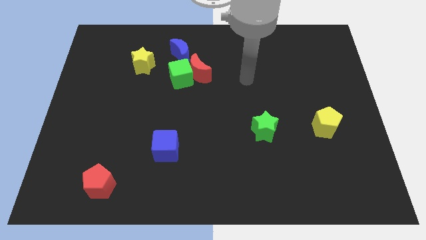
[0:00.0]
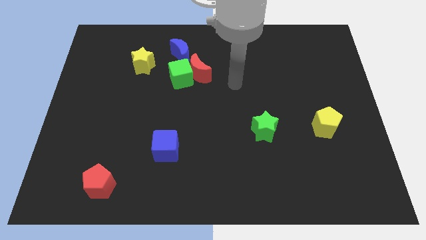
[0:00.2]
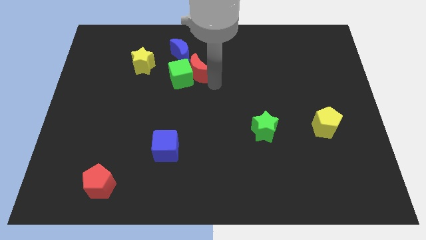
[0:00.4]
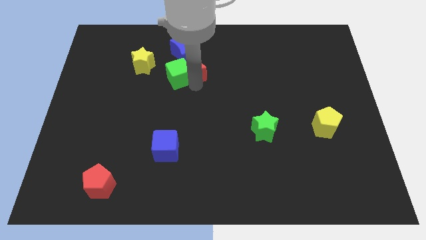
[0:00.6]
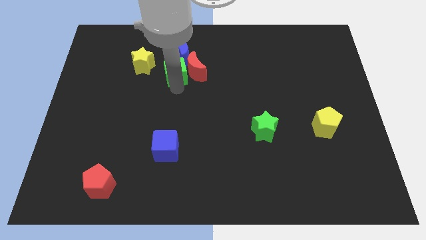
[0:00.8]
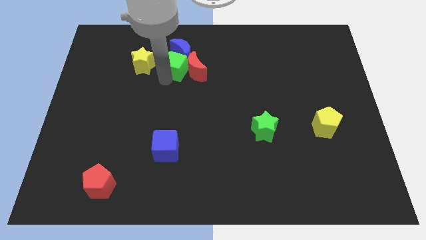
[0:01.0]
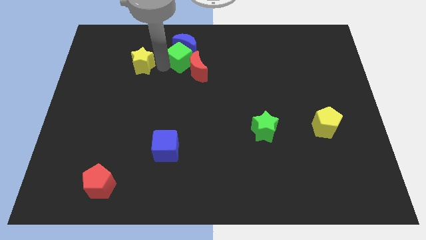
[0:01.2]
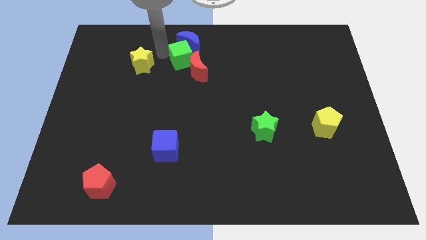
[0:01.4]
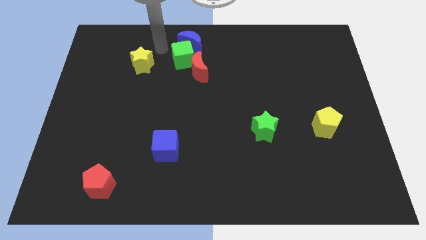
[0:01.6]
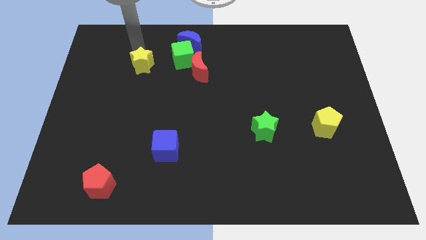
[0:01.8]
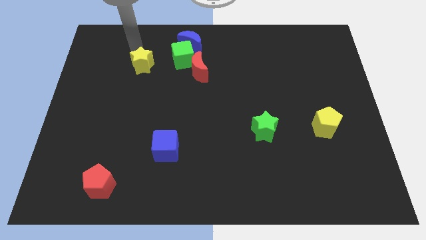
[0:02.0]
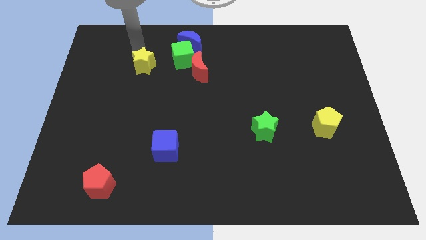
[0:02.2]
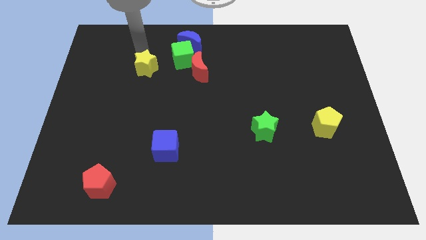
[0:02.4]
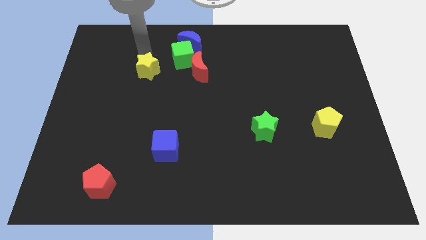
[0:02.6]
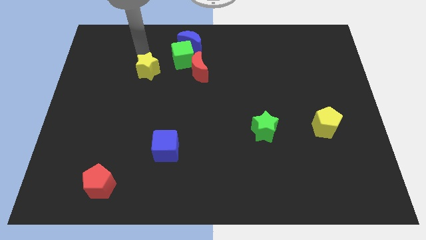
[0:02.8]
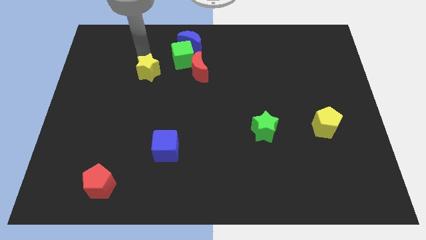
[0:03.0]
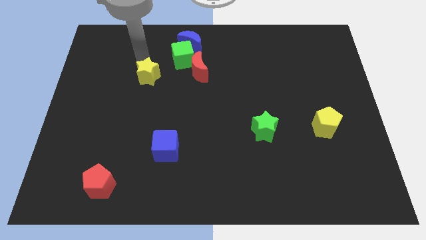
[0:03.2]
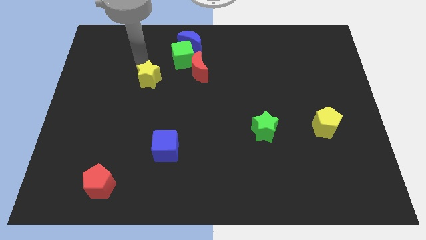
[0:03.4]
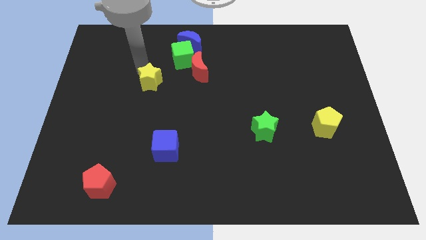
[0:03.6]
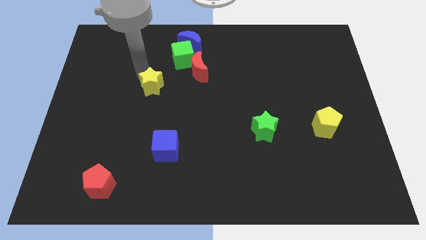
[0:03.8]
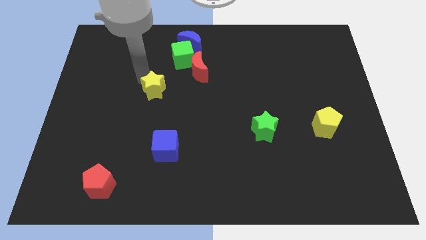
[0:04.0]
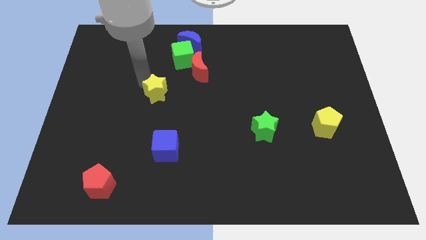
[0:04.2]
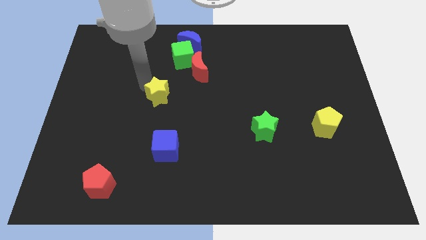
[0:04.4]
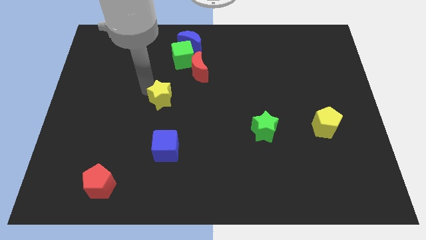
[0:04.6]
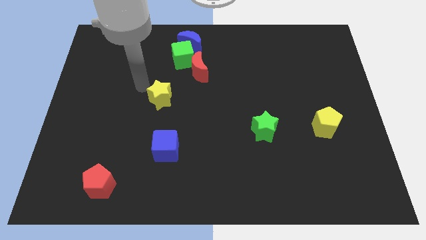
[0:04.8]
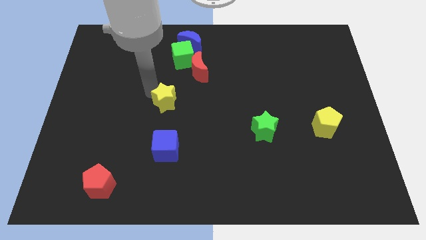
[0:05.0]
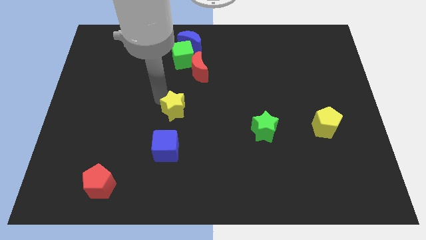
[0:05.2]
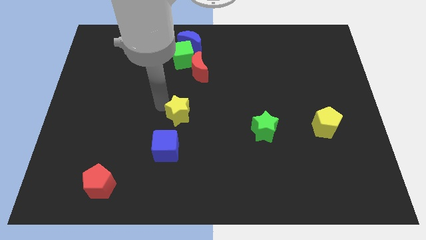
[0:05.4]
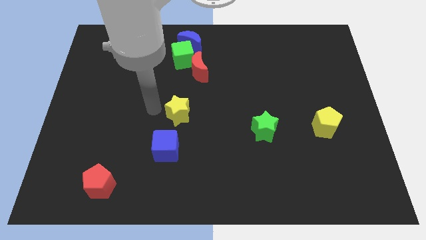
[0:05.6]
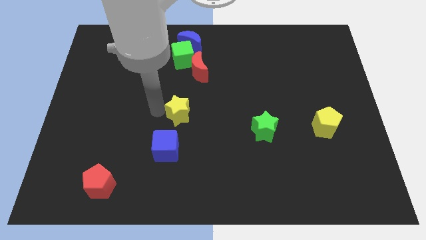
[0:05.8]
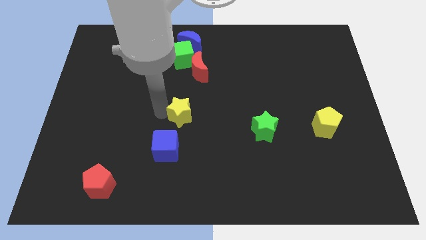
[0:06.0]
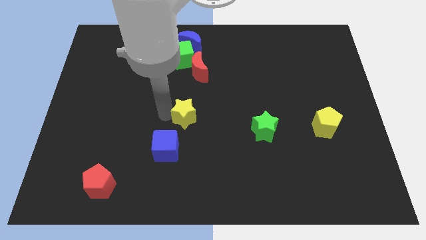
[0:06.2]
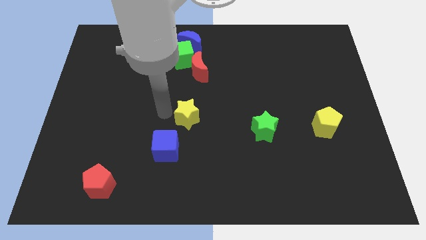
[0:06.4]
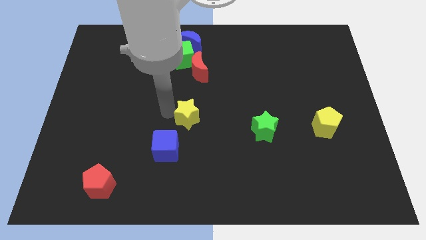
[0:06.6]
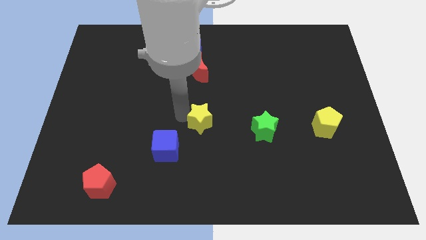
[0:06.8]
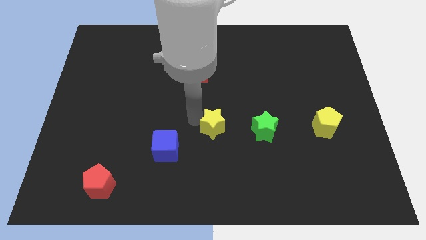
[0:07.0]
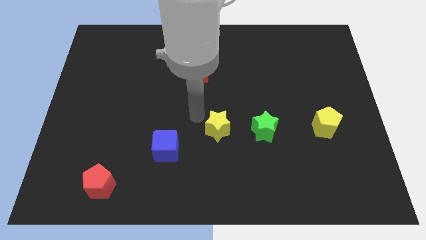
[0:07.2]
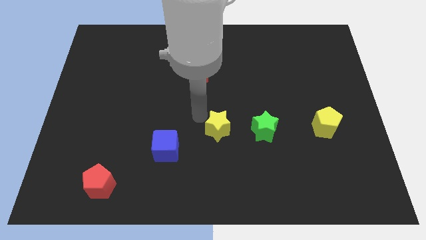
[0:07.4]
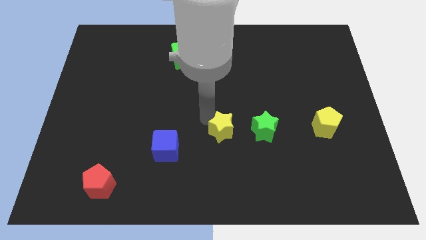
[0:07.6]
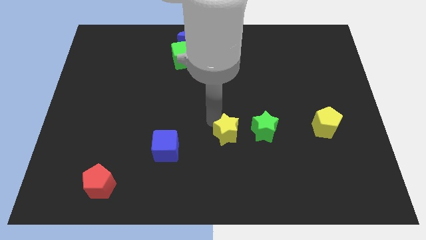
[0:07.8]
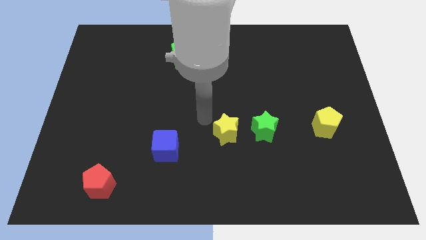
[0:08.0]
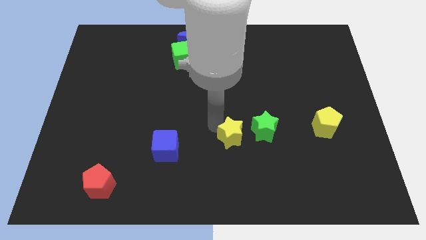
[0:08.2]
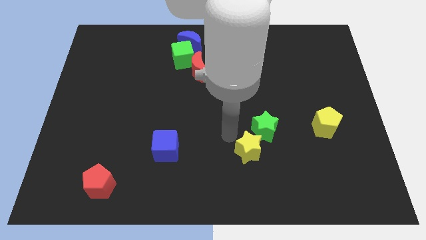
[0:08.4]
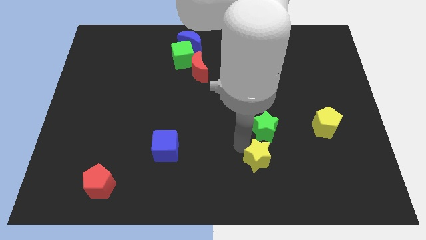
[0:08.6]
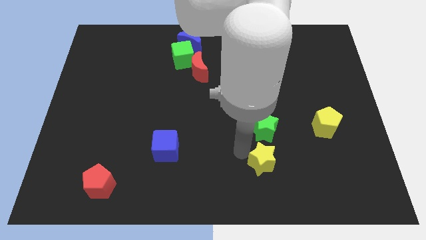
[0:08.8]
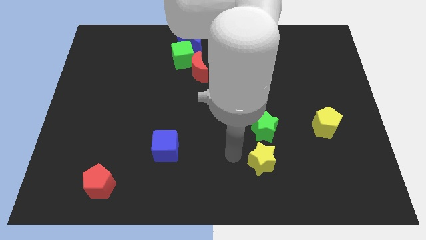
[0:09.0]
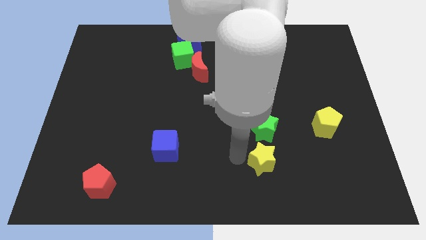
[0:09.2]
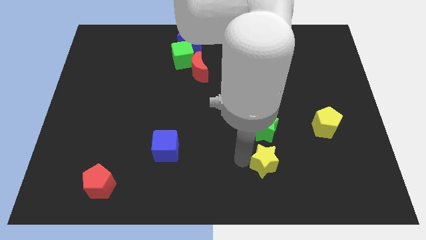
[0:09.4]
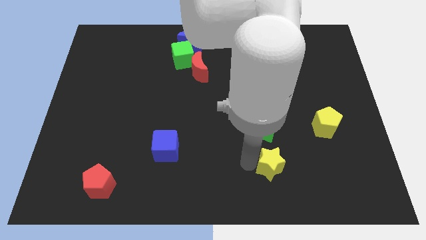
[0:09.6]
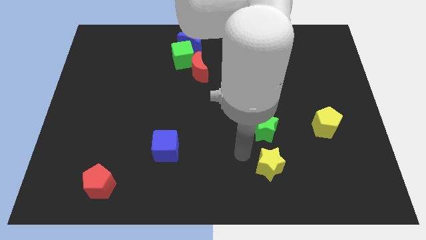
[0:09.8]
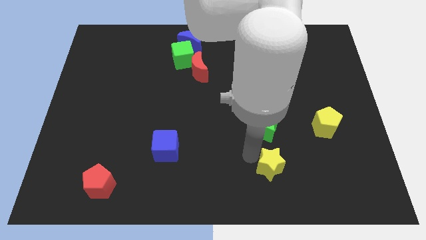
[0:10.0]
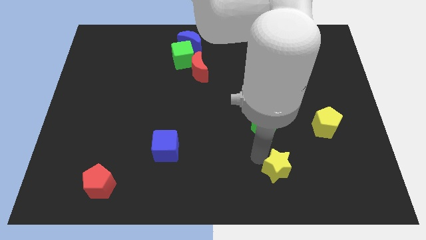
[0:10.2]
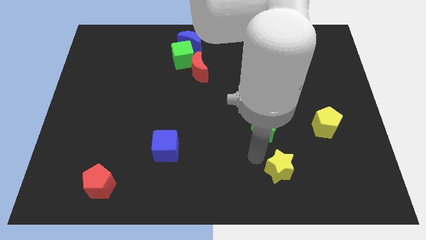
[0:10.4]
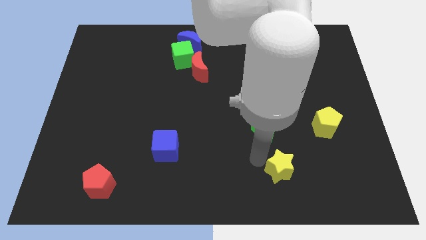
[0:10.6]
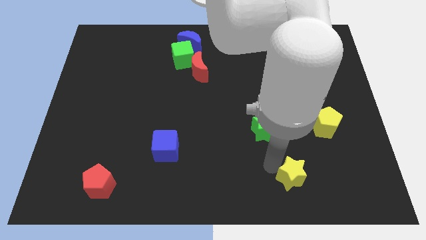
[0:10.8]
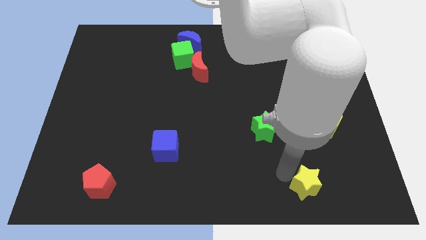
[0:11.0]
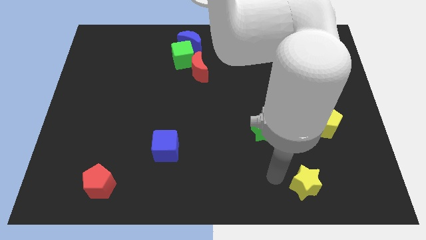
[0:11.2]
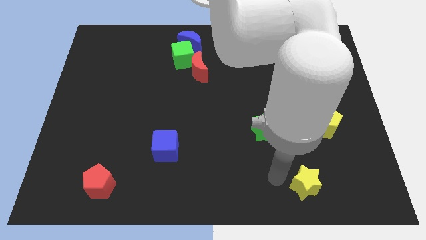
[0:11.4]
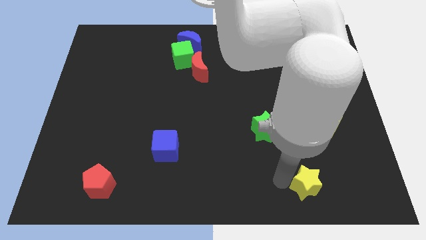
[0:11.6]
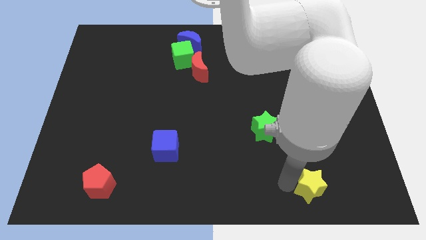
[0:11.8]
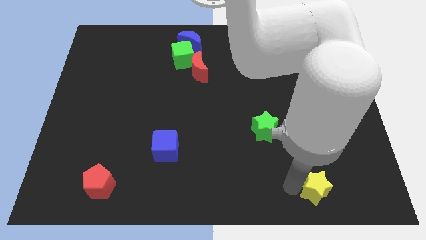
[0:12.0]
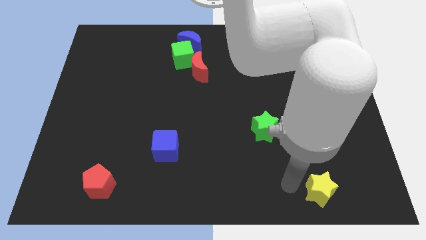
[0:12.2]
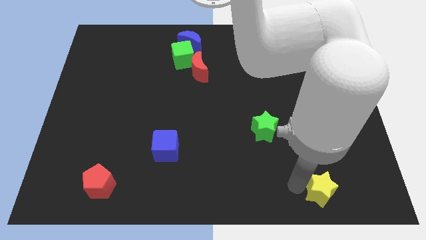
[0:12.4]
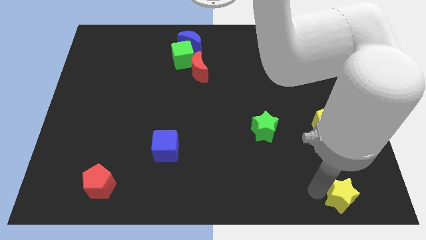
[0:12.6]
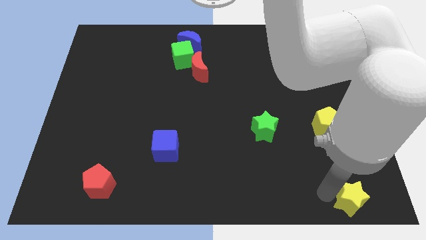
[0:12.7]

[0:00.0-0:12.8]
put the yellow star to the lower right corner

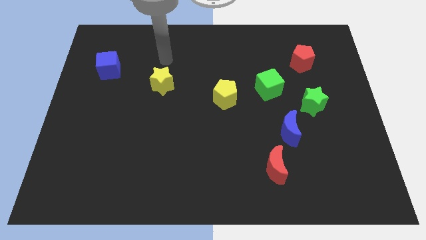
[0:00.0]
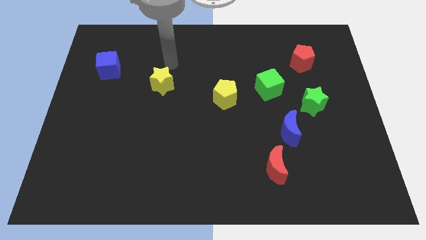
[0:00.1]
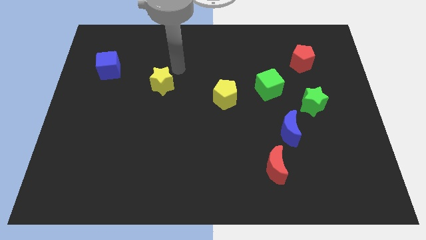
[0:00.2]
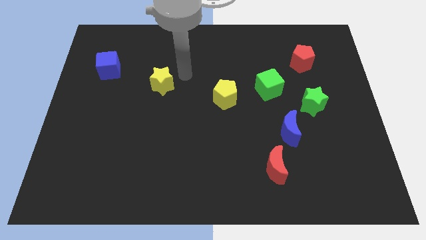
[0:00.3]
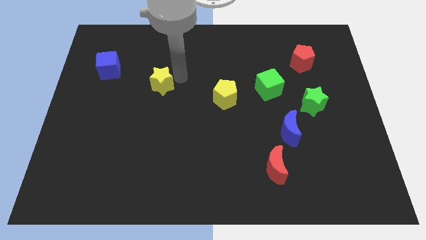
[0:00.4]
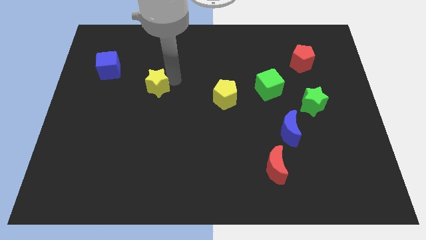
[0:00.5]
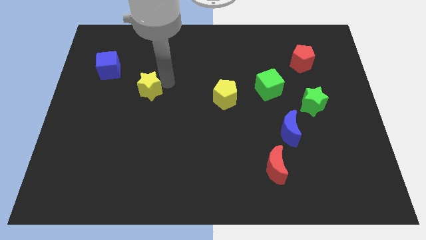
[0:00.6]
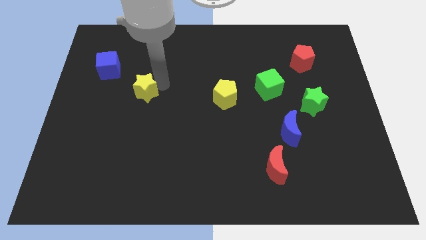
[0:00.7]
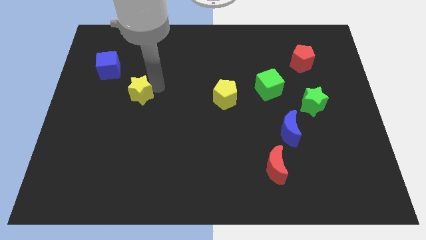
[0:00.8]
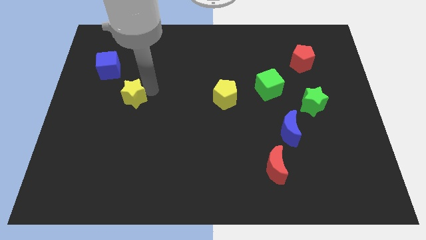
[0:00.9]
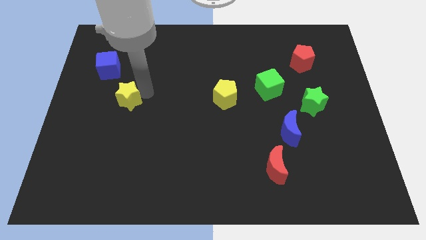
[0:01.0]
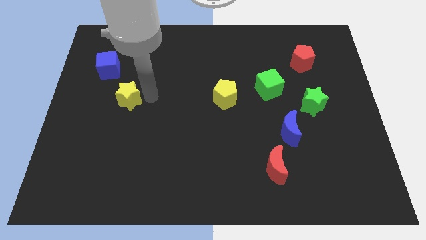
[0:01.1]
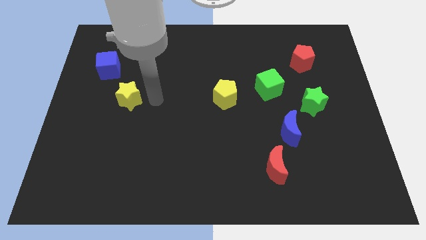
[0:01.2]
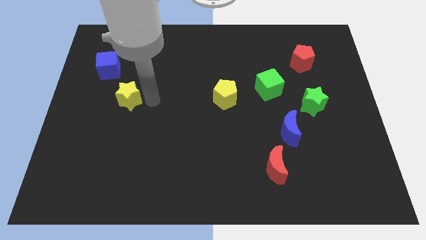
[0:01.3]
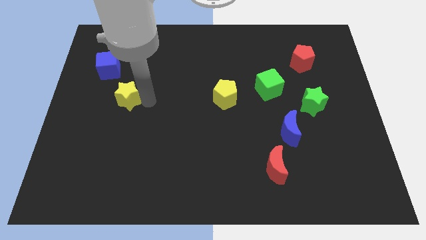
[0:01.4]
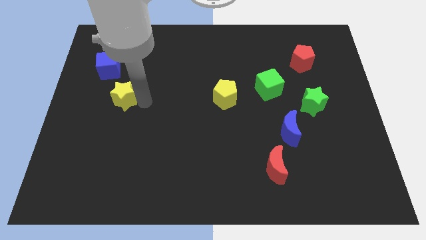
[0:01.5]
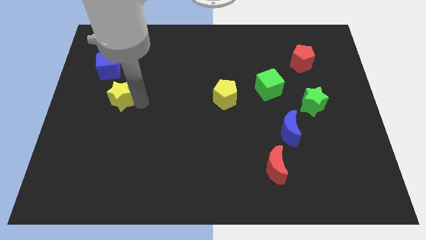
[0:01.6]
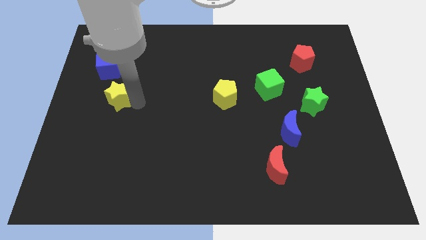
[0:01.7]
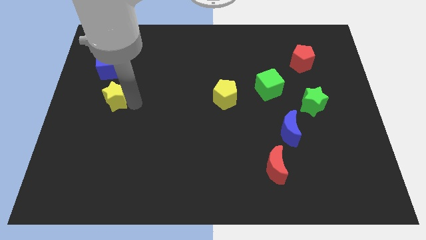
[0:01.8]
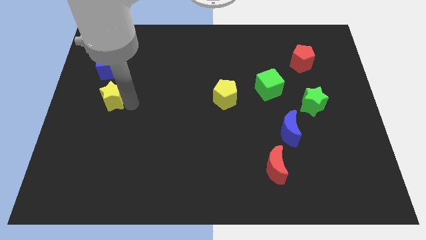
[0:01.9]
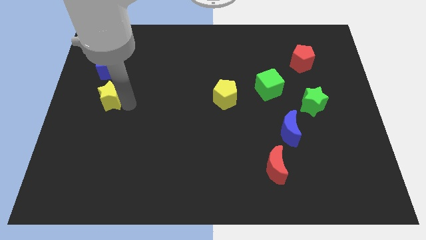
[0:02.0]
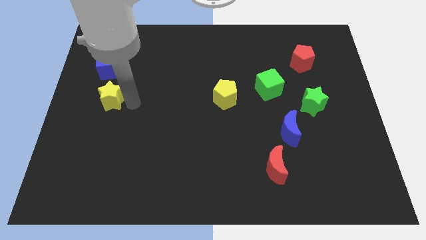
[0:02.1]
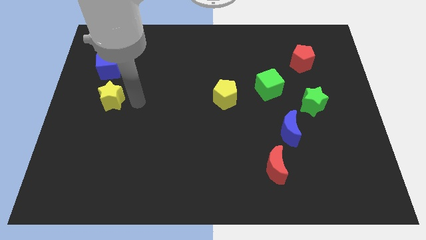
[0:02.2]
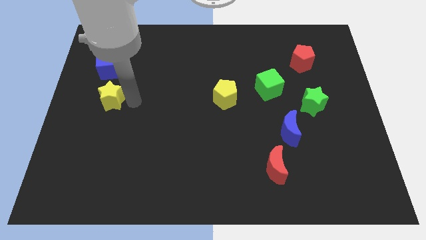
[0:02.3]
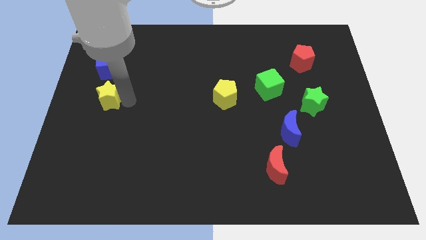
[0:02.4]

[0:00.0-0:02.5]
slide the yellow star to the left side
